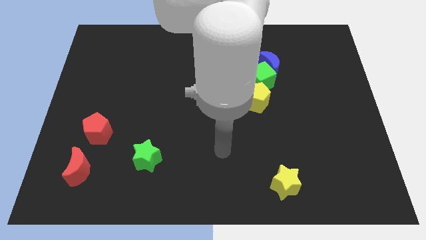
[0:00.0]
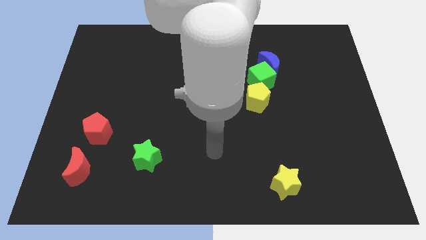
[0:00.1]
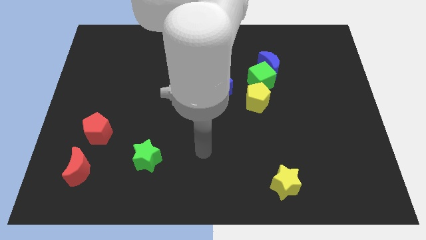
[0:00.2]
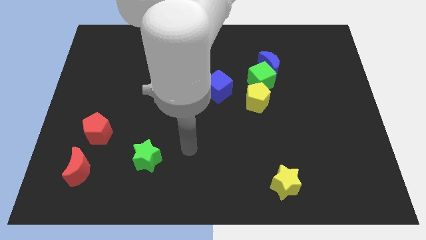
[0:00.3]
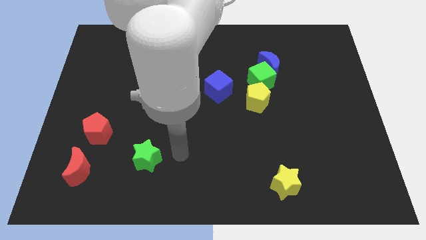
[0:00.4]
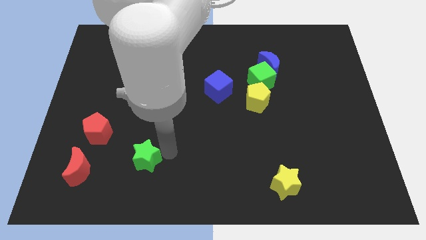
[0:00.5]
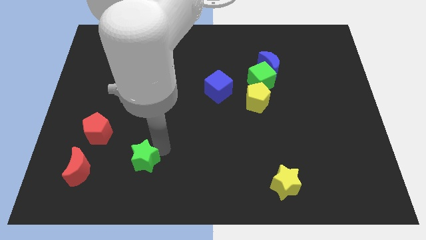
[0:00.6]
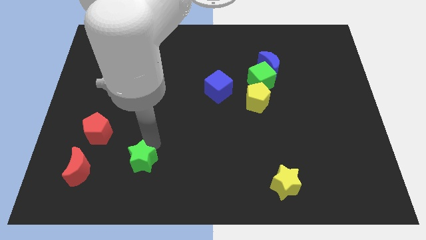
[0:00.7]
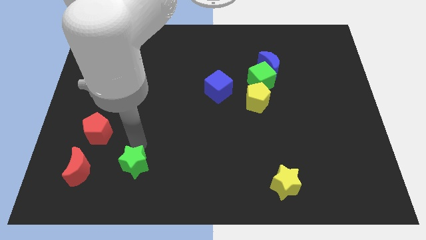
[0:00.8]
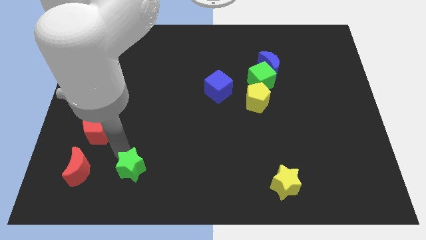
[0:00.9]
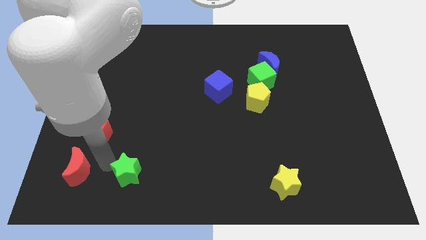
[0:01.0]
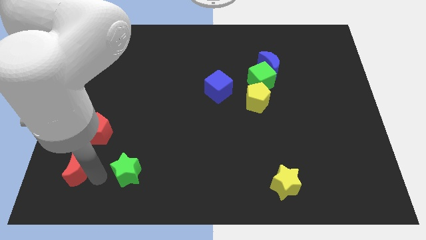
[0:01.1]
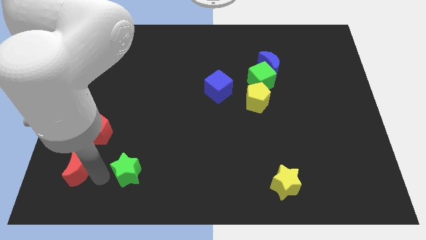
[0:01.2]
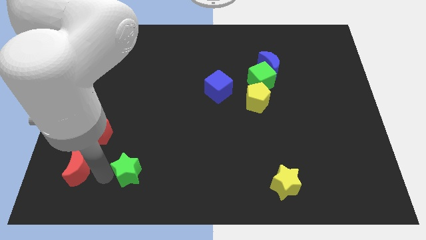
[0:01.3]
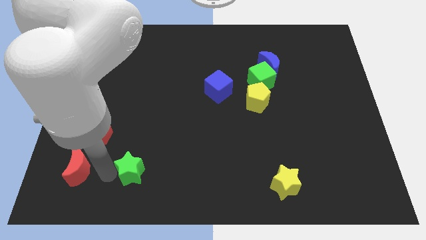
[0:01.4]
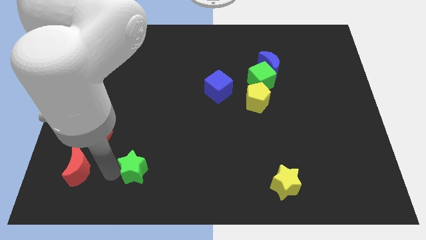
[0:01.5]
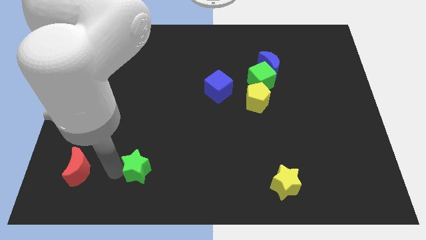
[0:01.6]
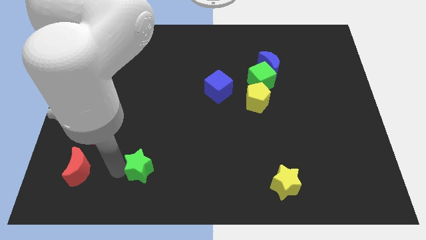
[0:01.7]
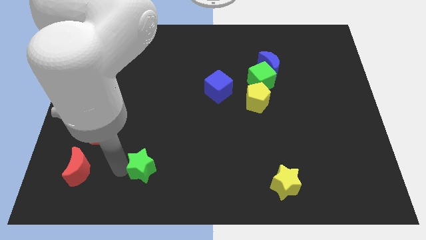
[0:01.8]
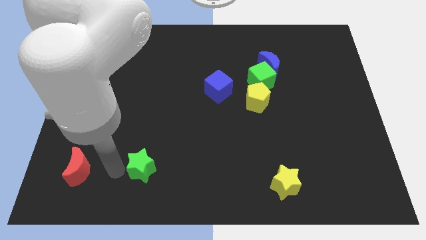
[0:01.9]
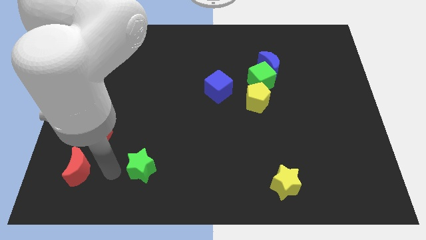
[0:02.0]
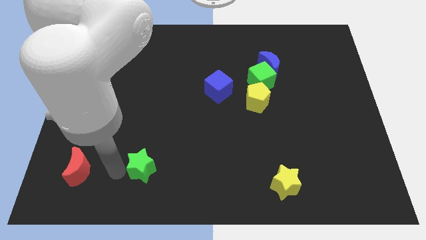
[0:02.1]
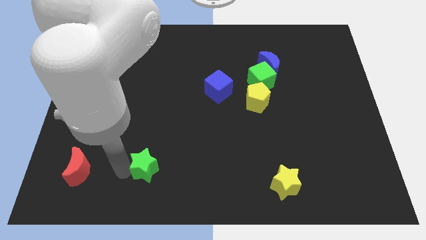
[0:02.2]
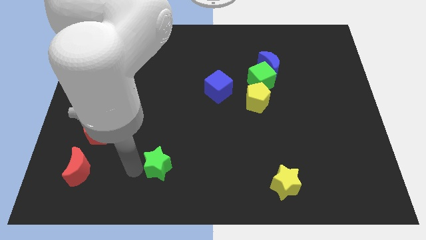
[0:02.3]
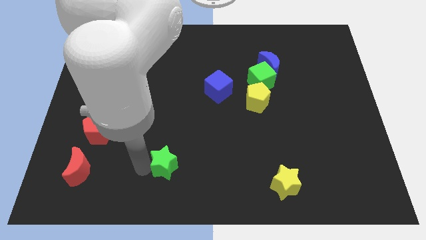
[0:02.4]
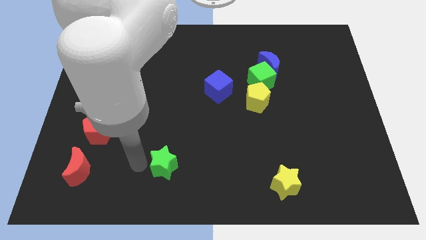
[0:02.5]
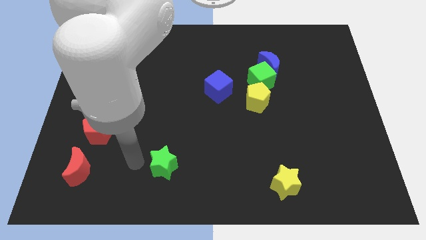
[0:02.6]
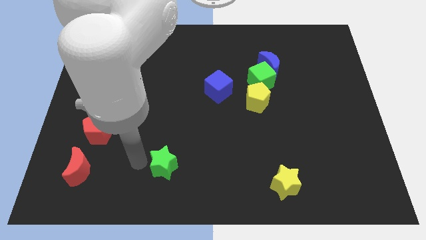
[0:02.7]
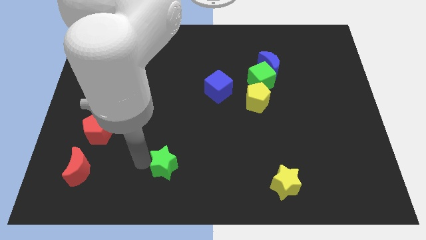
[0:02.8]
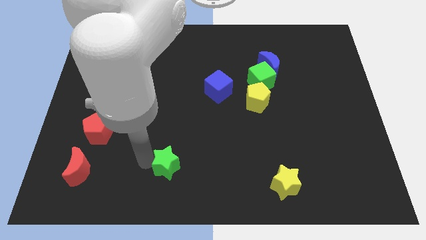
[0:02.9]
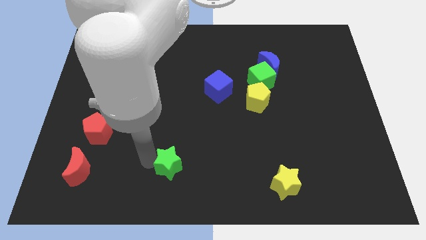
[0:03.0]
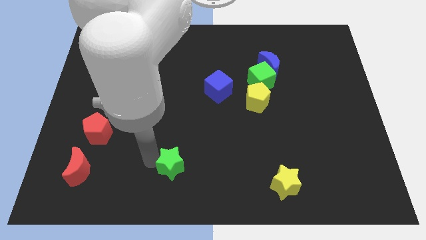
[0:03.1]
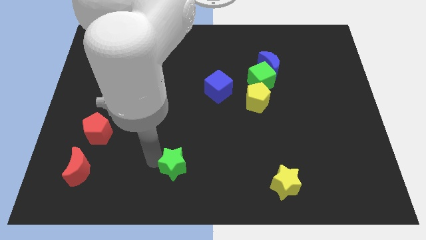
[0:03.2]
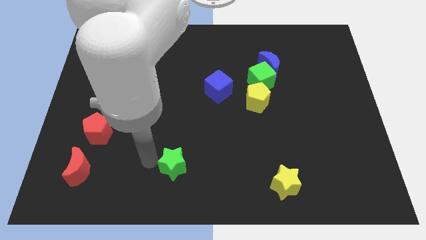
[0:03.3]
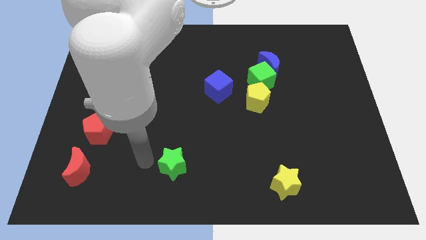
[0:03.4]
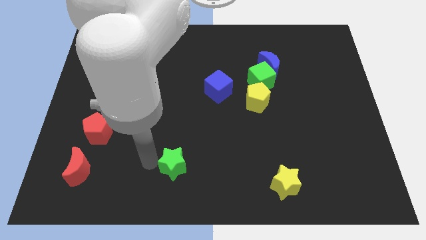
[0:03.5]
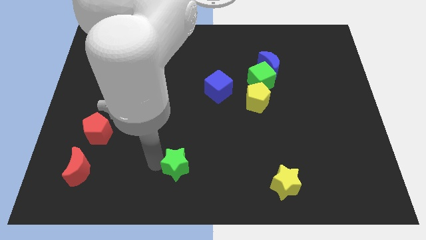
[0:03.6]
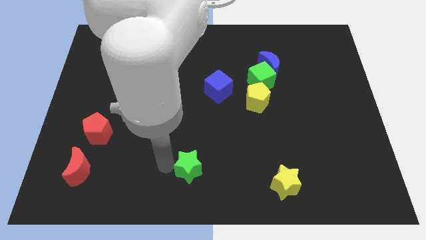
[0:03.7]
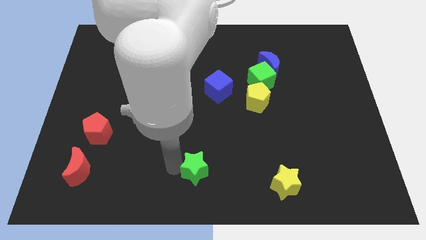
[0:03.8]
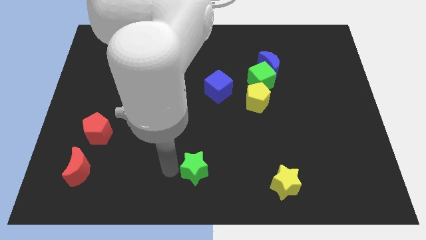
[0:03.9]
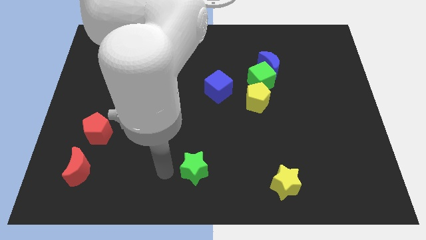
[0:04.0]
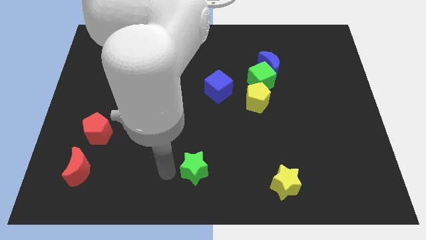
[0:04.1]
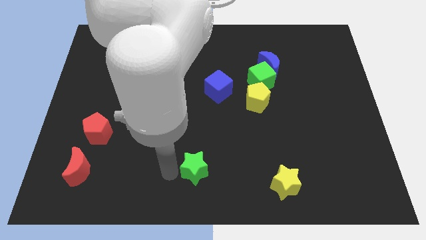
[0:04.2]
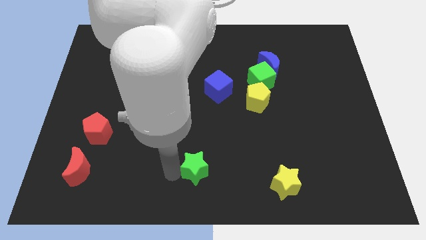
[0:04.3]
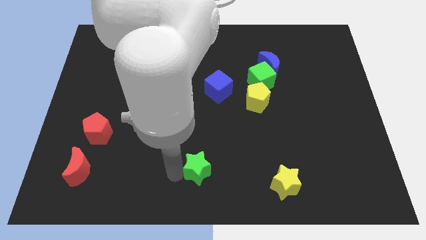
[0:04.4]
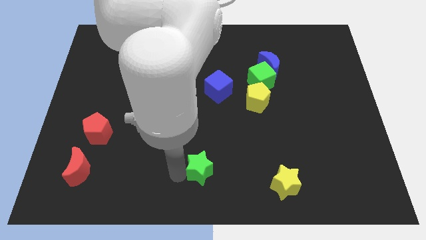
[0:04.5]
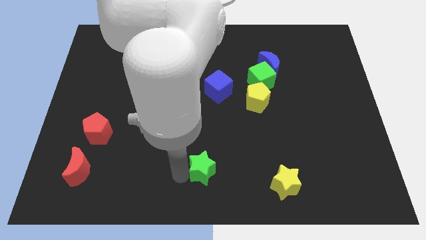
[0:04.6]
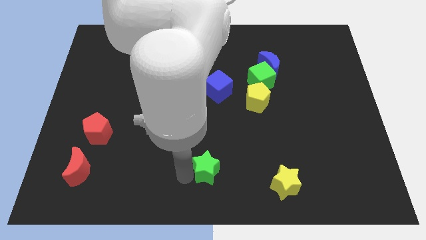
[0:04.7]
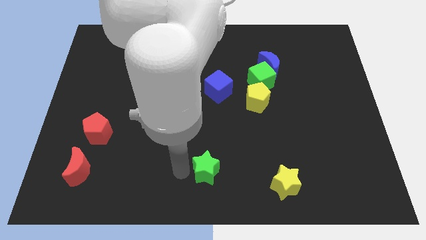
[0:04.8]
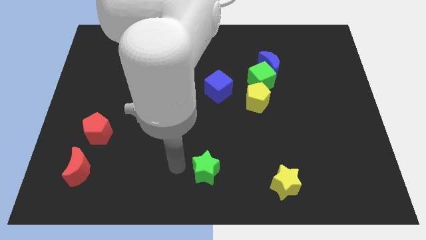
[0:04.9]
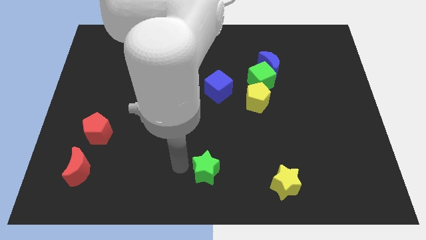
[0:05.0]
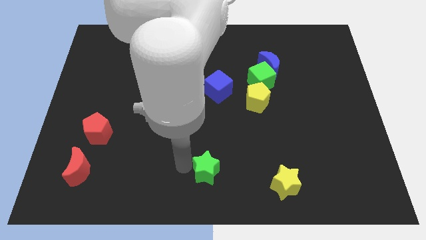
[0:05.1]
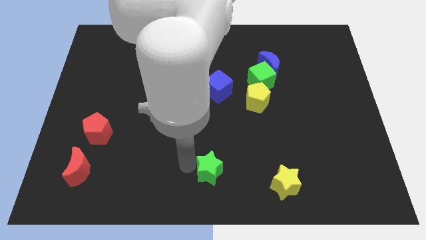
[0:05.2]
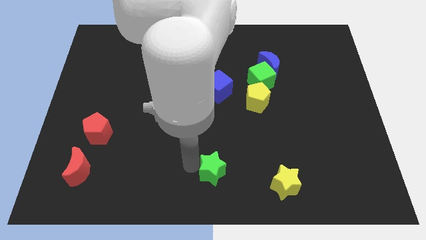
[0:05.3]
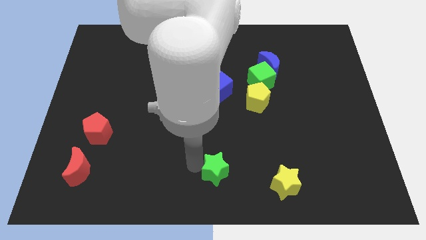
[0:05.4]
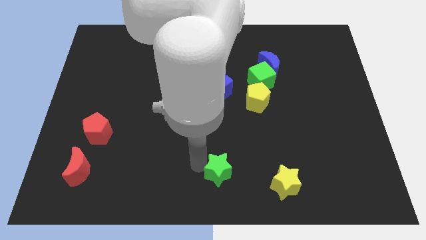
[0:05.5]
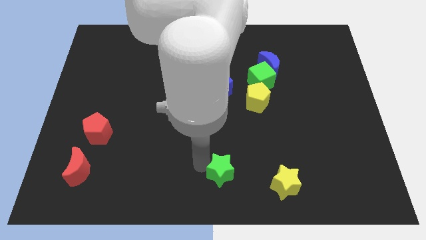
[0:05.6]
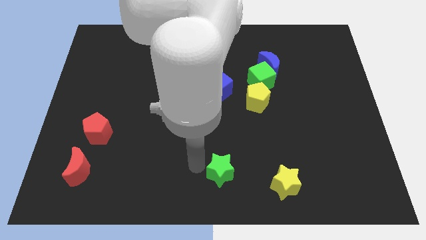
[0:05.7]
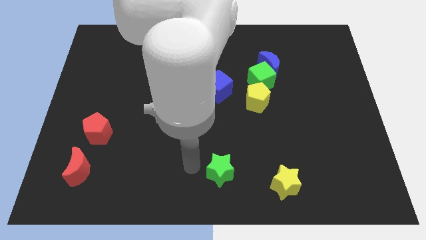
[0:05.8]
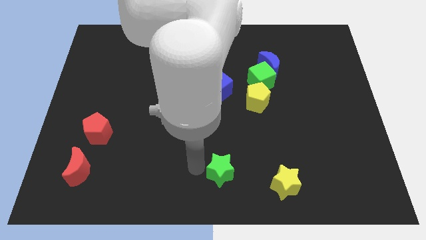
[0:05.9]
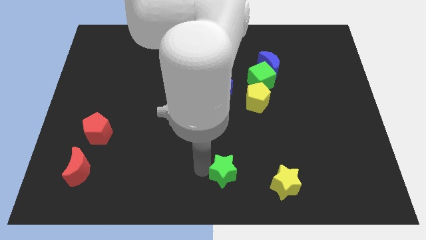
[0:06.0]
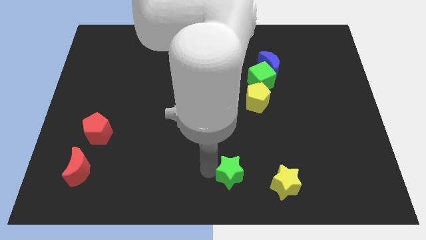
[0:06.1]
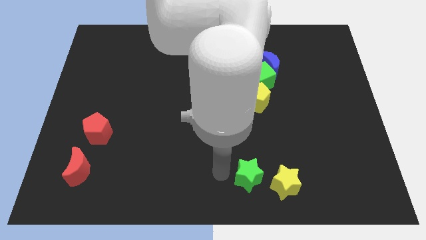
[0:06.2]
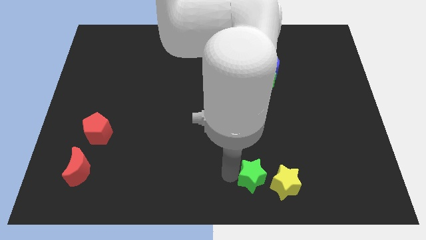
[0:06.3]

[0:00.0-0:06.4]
put the green star next to the yellow star

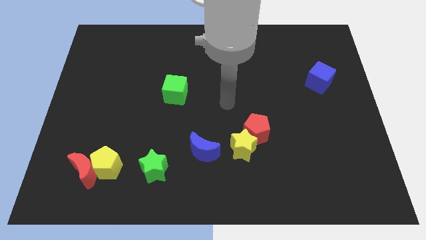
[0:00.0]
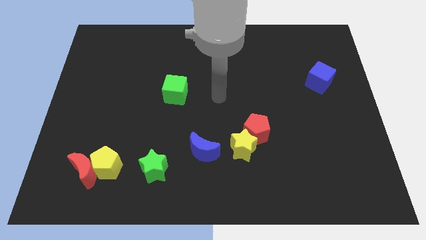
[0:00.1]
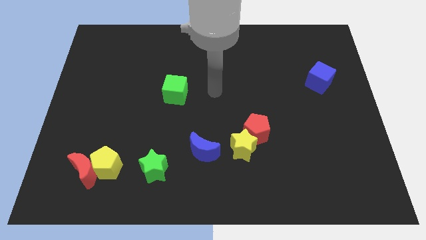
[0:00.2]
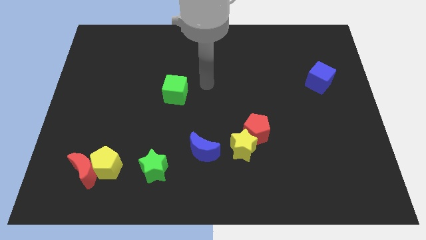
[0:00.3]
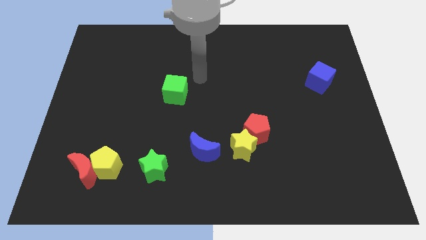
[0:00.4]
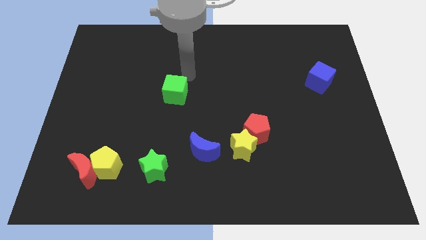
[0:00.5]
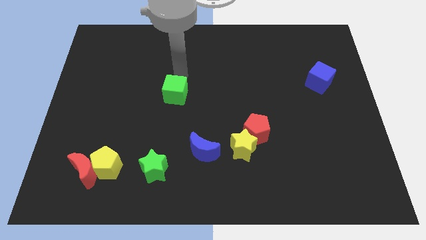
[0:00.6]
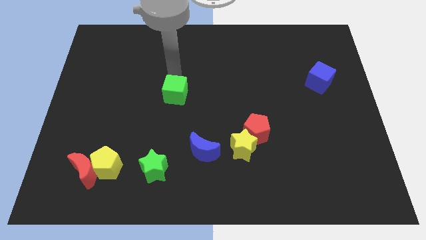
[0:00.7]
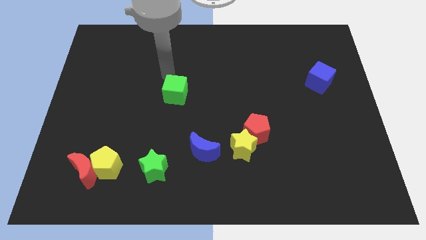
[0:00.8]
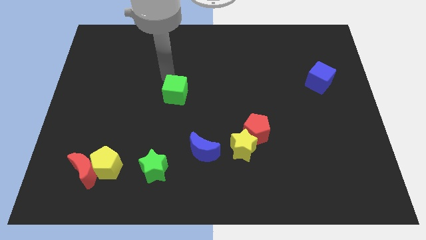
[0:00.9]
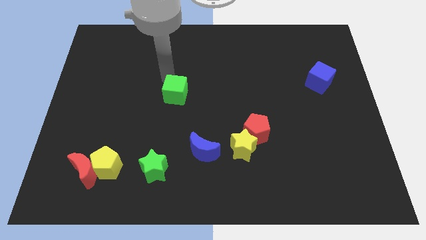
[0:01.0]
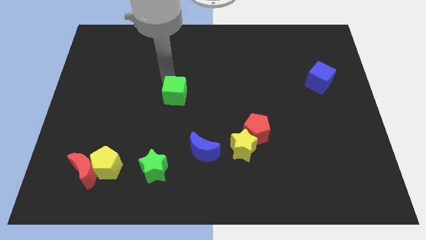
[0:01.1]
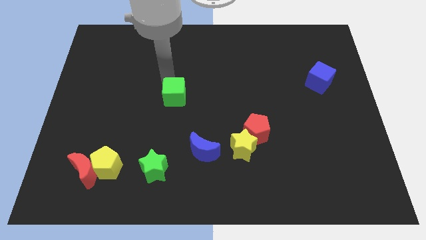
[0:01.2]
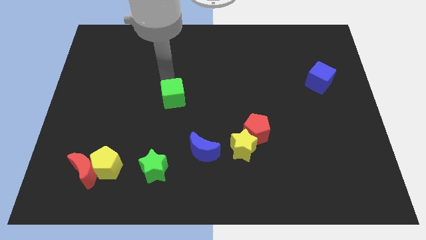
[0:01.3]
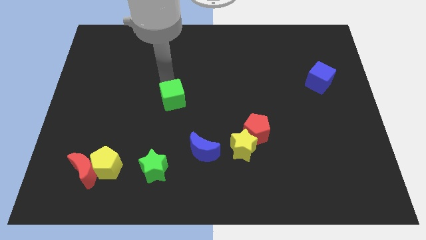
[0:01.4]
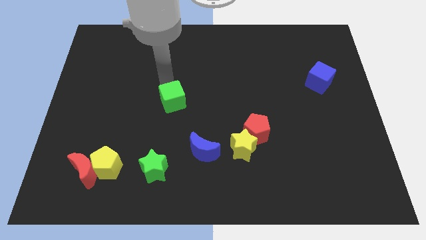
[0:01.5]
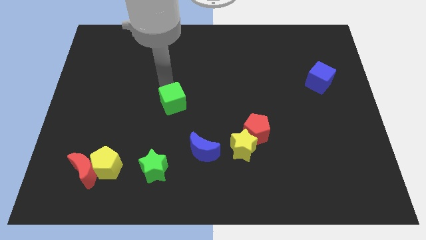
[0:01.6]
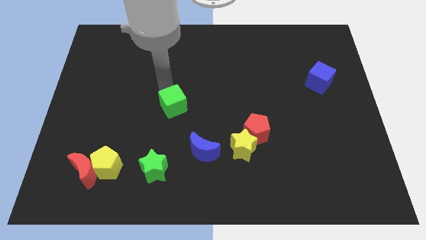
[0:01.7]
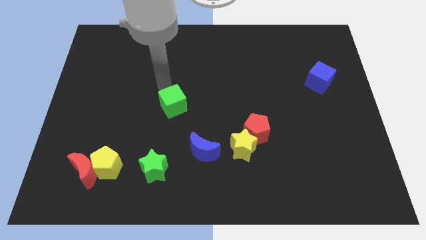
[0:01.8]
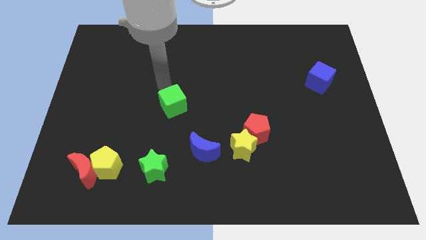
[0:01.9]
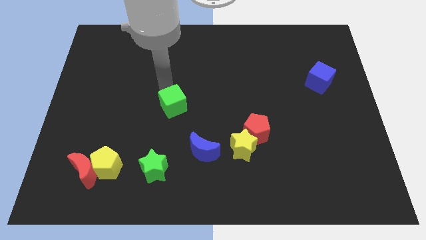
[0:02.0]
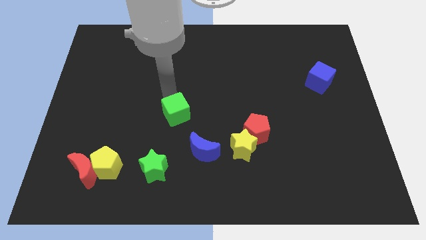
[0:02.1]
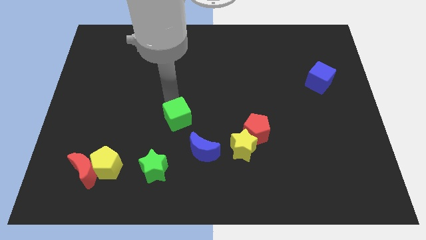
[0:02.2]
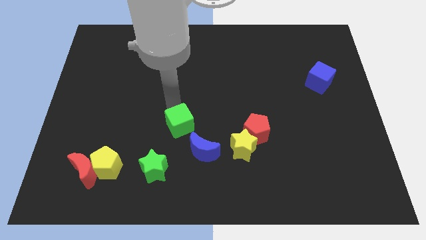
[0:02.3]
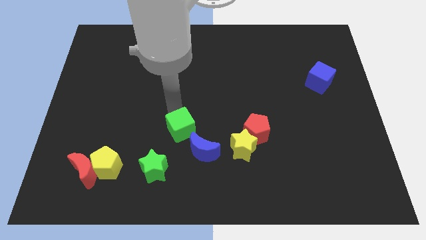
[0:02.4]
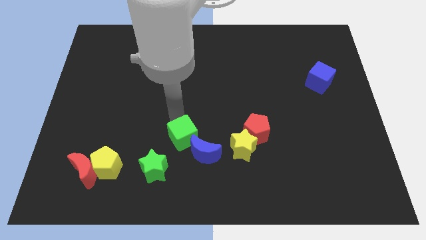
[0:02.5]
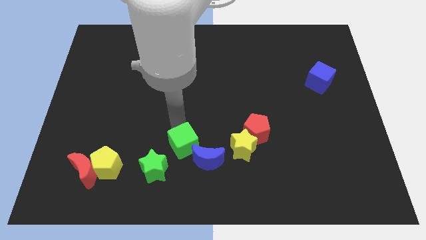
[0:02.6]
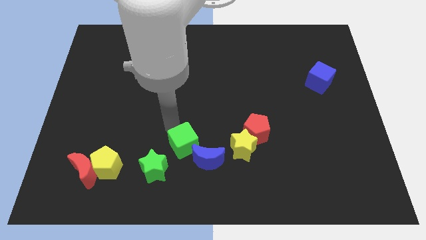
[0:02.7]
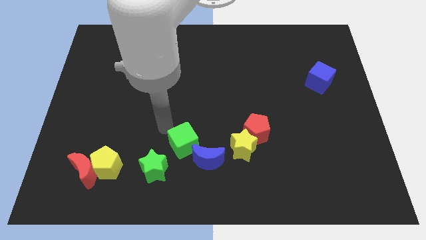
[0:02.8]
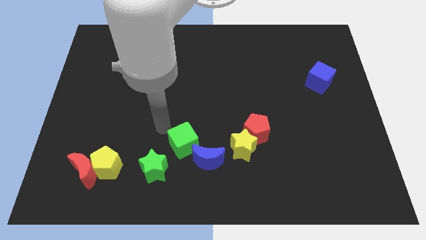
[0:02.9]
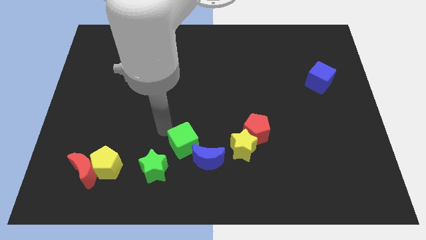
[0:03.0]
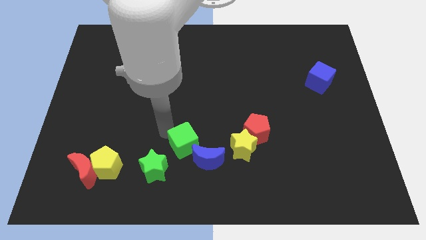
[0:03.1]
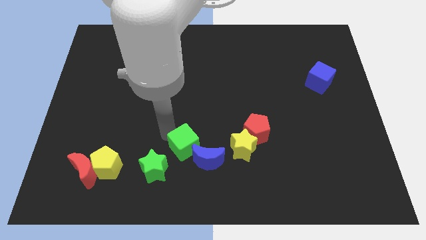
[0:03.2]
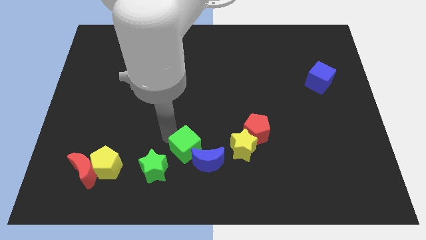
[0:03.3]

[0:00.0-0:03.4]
put the green cube close to the blue moon
